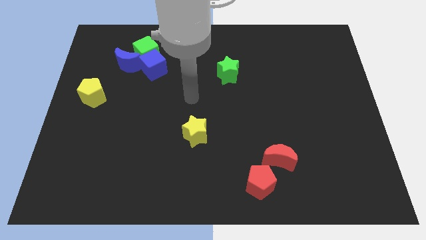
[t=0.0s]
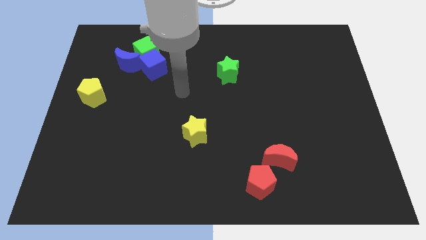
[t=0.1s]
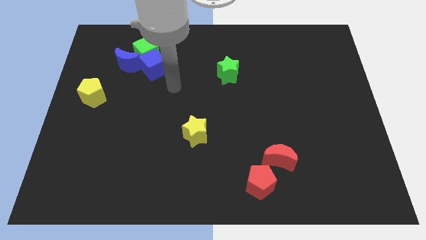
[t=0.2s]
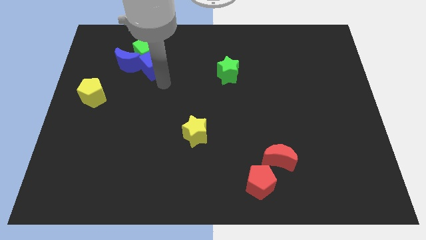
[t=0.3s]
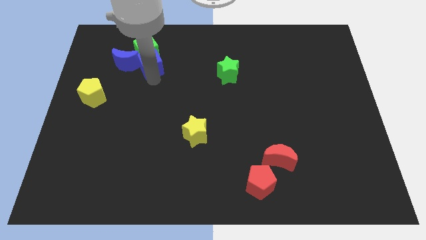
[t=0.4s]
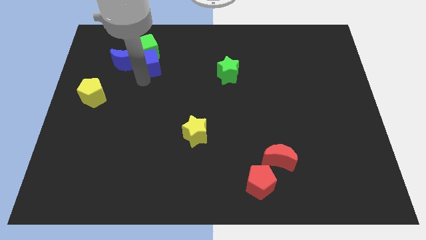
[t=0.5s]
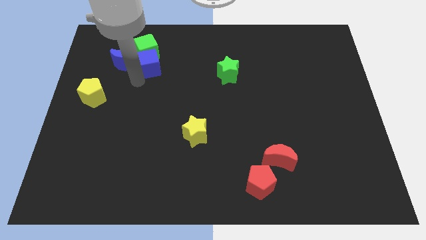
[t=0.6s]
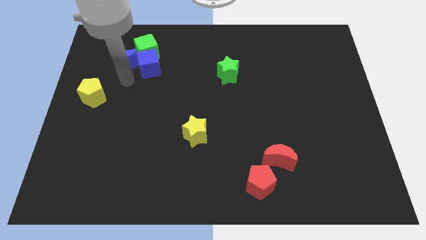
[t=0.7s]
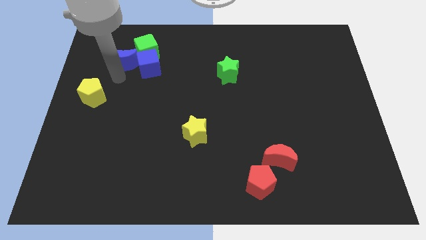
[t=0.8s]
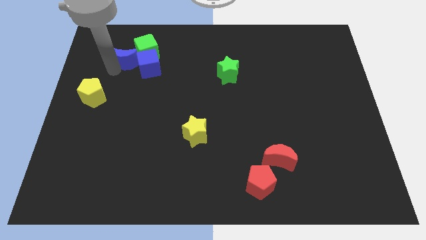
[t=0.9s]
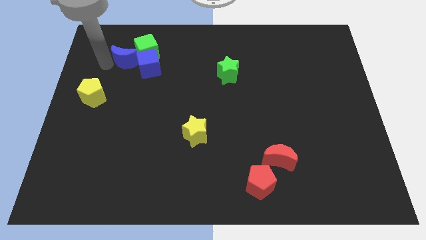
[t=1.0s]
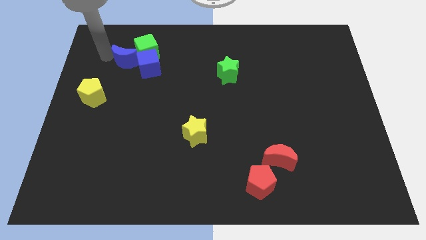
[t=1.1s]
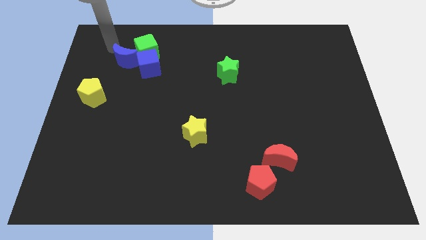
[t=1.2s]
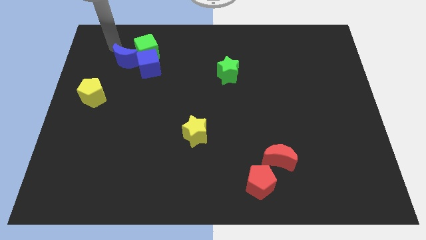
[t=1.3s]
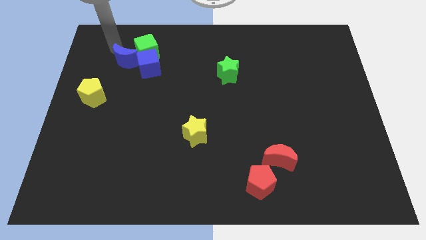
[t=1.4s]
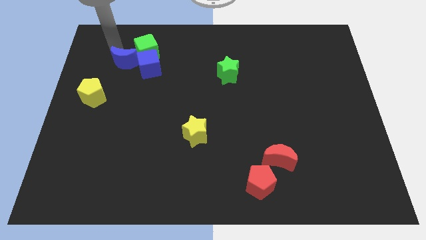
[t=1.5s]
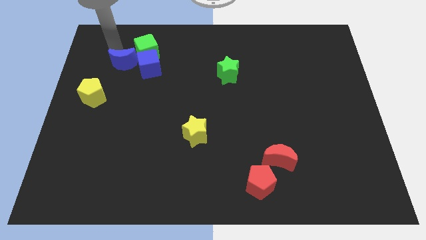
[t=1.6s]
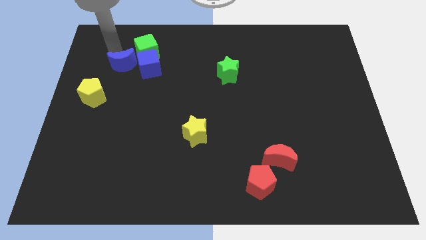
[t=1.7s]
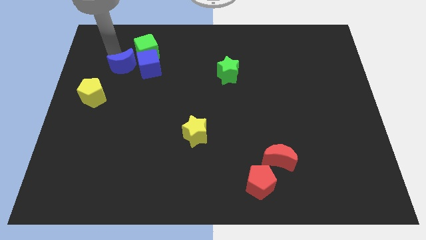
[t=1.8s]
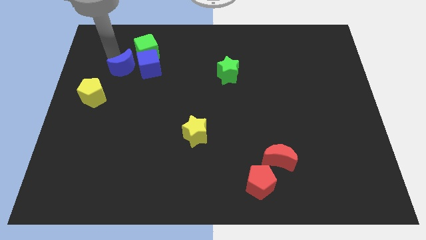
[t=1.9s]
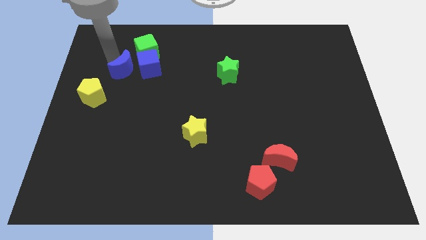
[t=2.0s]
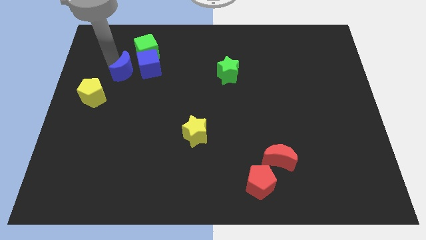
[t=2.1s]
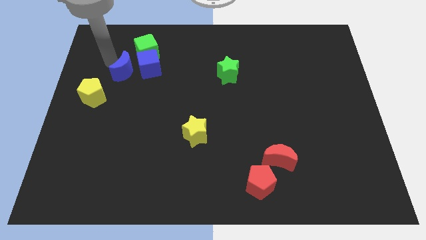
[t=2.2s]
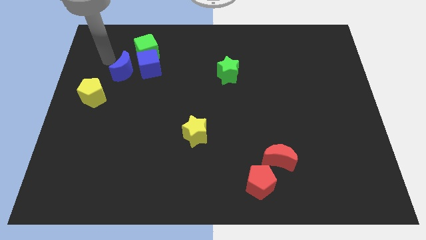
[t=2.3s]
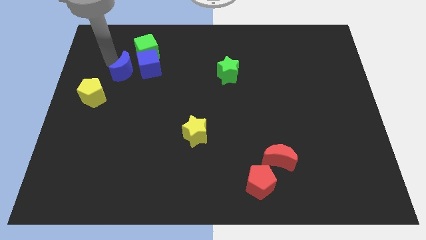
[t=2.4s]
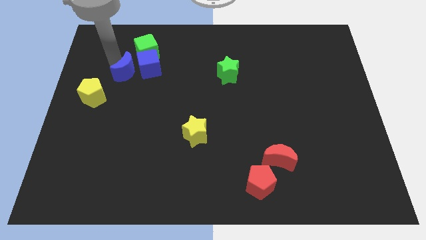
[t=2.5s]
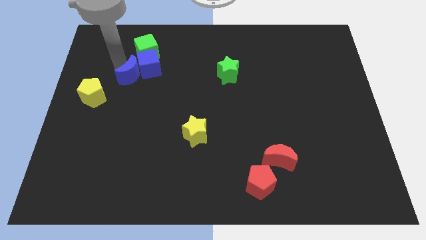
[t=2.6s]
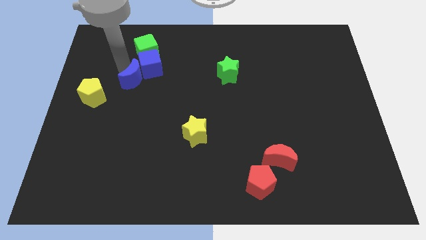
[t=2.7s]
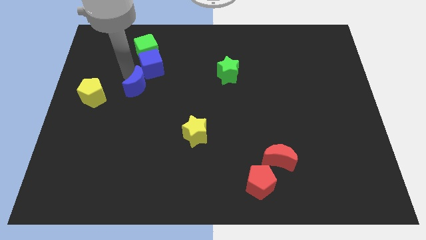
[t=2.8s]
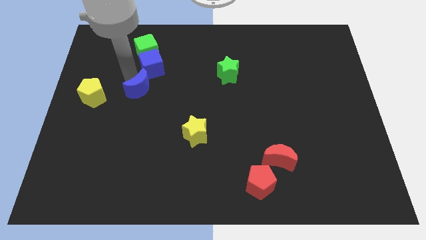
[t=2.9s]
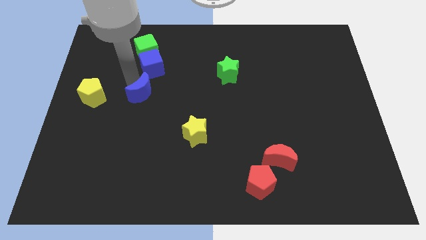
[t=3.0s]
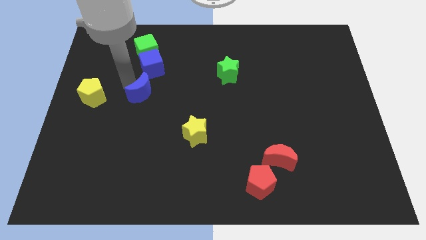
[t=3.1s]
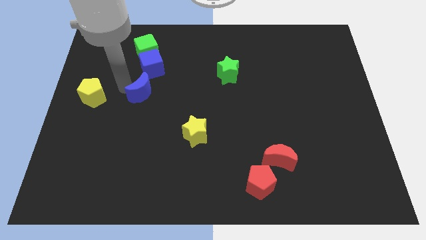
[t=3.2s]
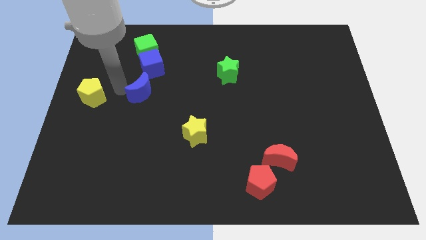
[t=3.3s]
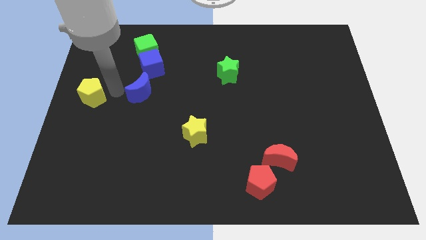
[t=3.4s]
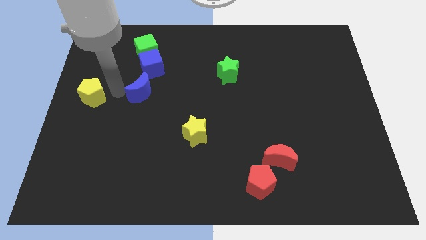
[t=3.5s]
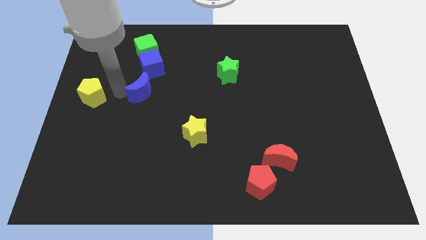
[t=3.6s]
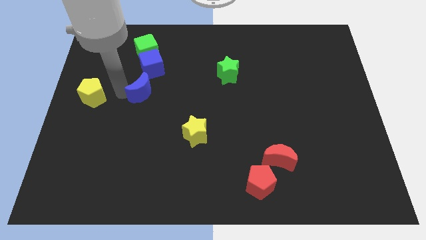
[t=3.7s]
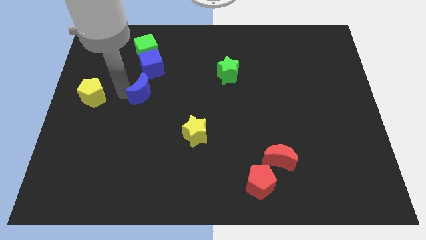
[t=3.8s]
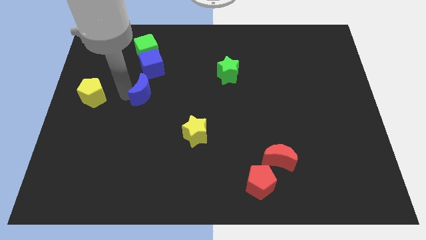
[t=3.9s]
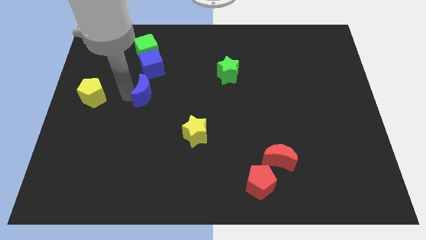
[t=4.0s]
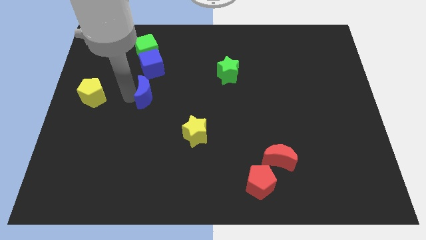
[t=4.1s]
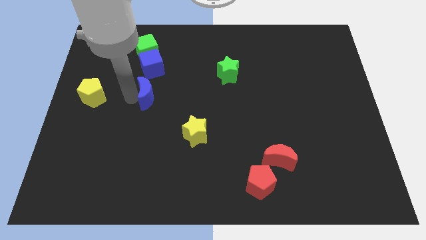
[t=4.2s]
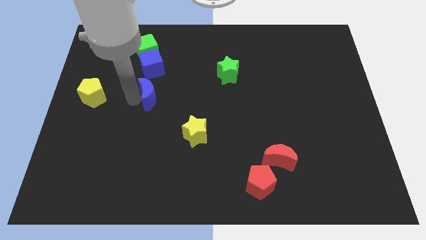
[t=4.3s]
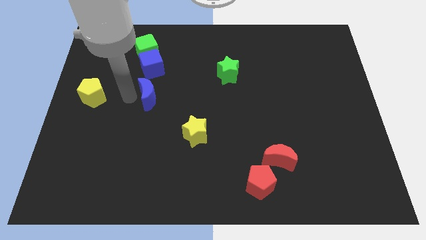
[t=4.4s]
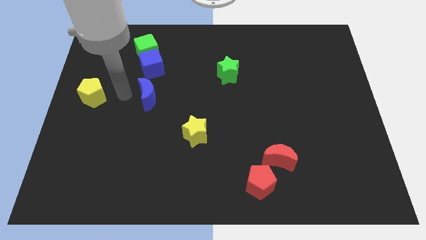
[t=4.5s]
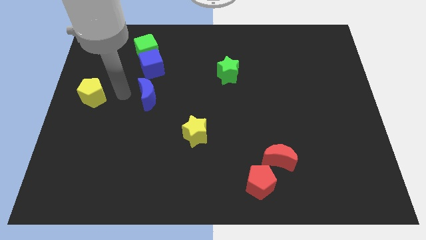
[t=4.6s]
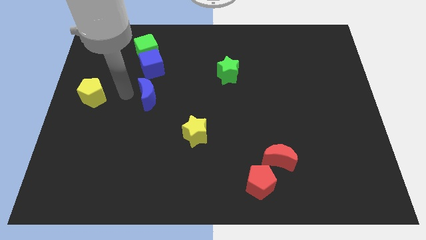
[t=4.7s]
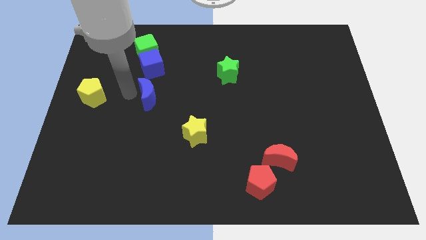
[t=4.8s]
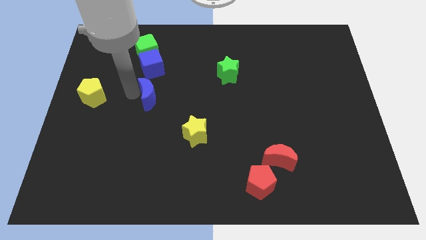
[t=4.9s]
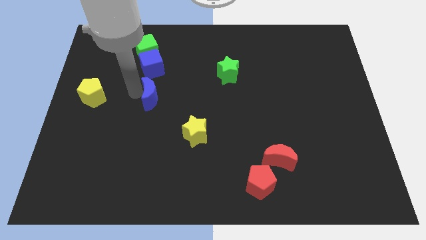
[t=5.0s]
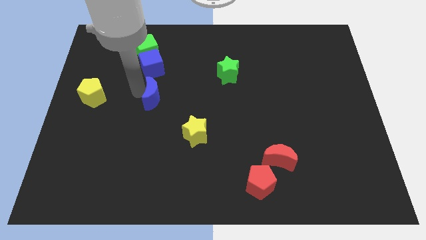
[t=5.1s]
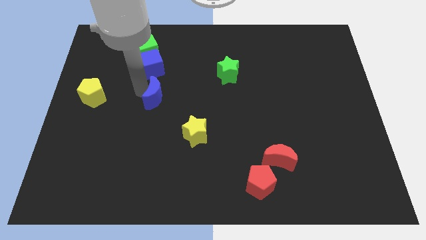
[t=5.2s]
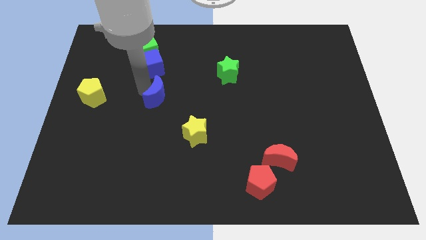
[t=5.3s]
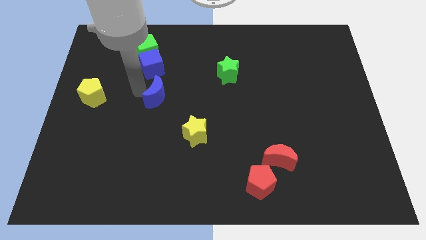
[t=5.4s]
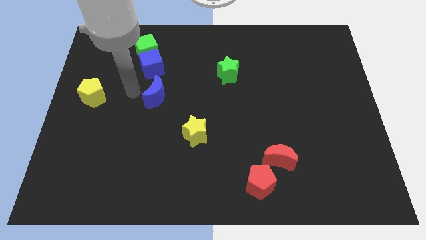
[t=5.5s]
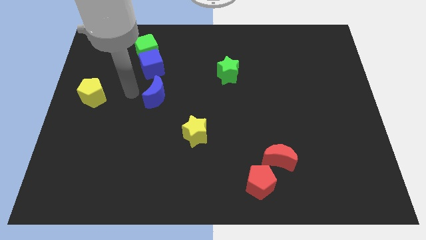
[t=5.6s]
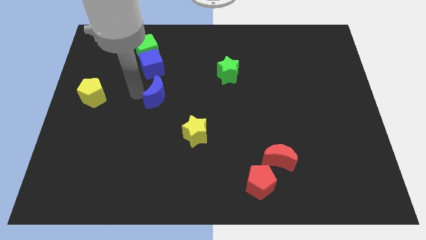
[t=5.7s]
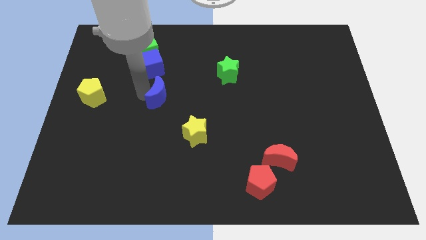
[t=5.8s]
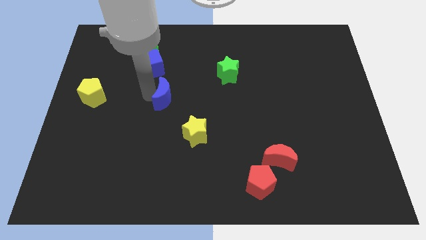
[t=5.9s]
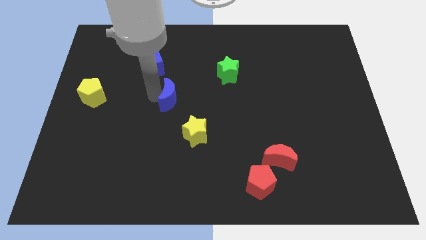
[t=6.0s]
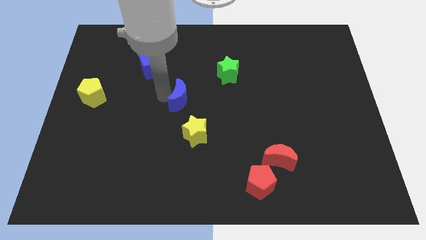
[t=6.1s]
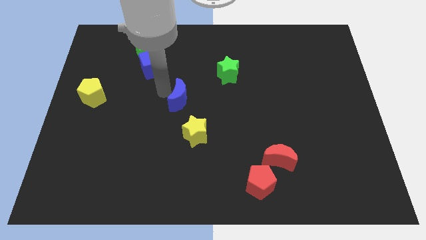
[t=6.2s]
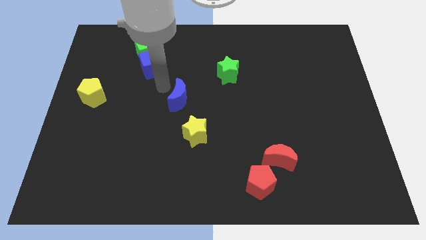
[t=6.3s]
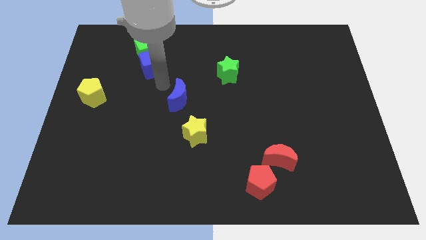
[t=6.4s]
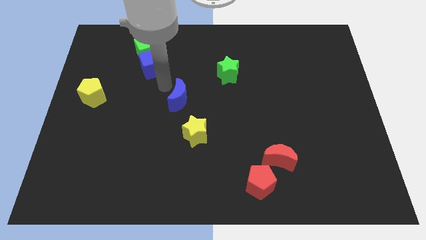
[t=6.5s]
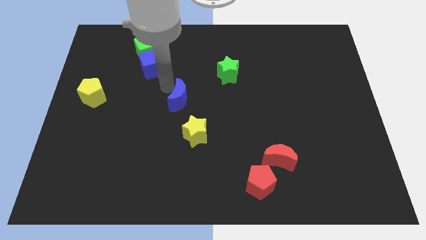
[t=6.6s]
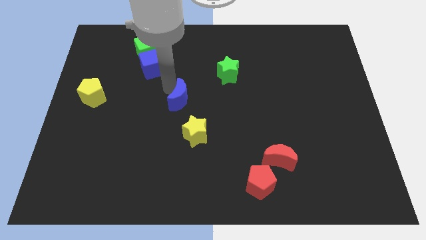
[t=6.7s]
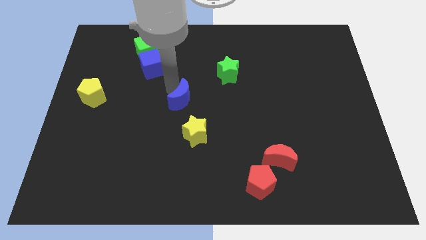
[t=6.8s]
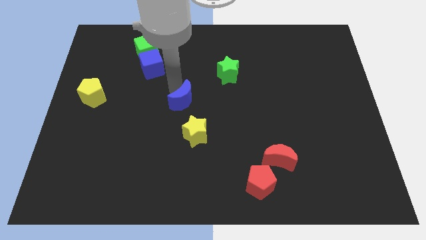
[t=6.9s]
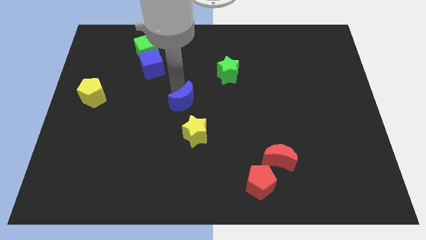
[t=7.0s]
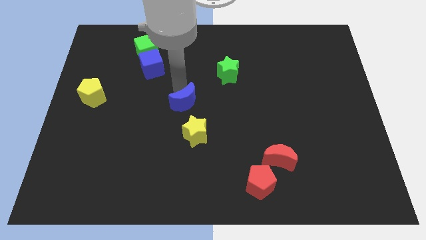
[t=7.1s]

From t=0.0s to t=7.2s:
push the blue moon down and to the right diagonally

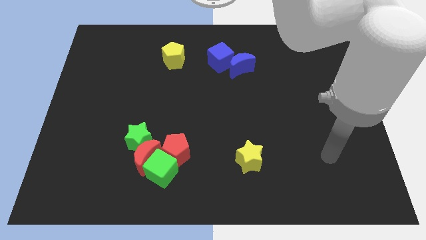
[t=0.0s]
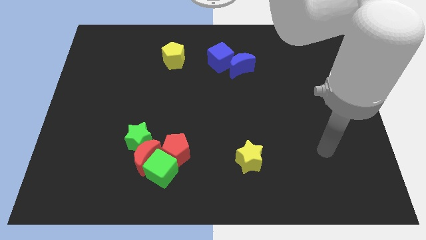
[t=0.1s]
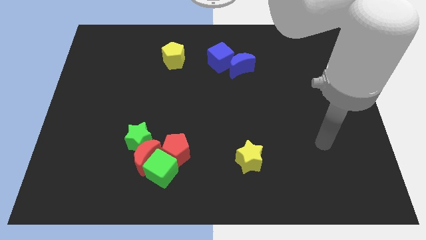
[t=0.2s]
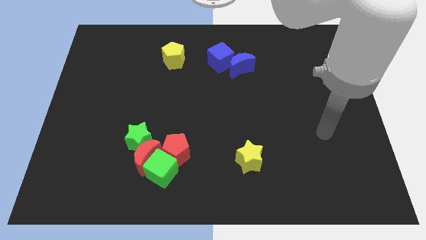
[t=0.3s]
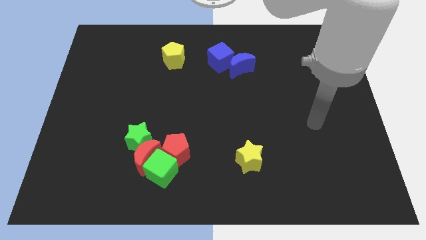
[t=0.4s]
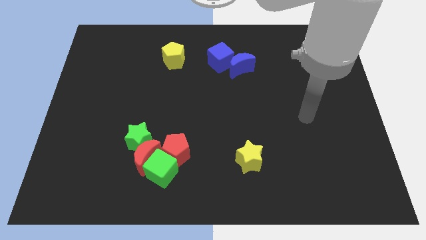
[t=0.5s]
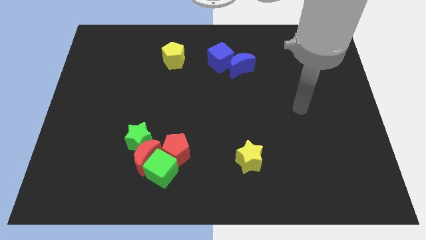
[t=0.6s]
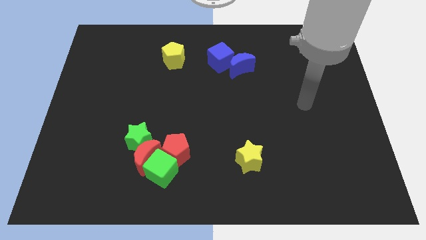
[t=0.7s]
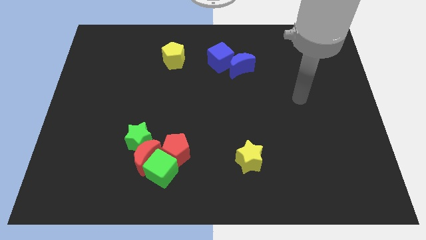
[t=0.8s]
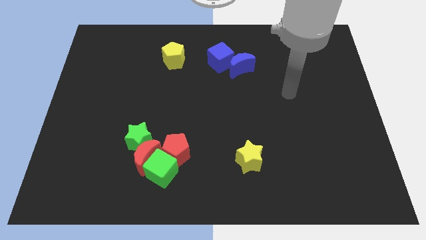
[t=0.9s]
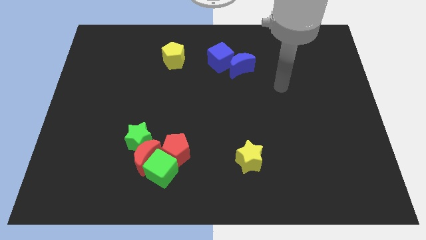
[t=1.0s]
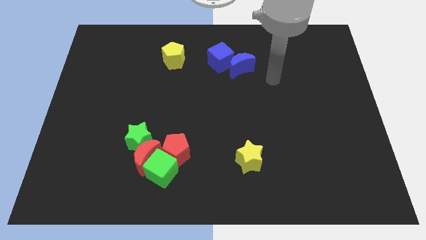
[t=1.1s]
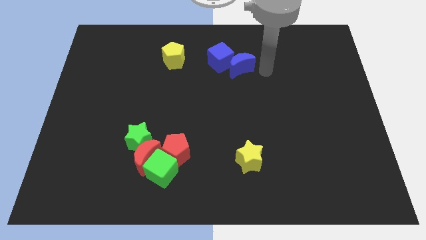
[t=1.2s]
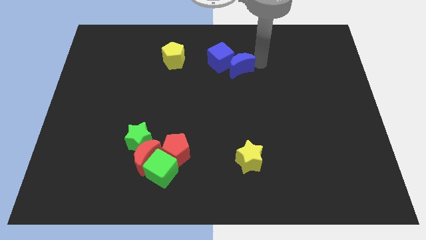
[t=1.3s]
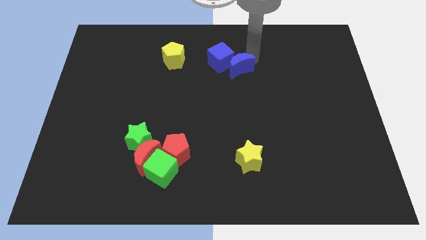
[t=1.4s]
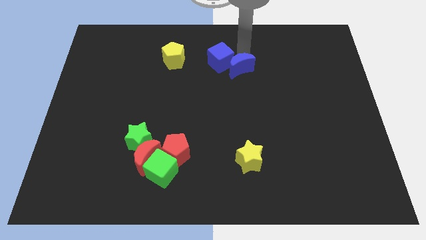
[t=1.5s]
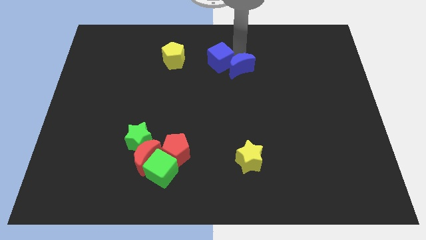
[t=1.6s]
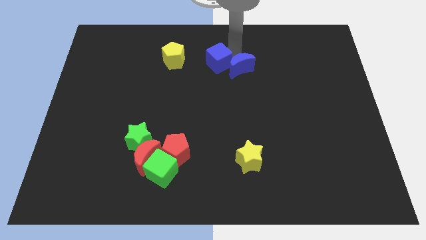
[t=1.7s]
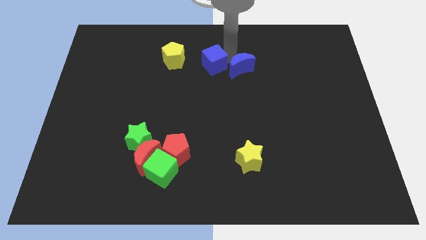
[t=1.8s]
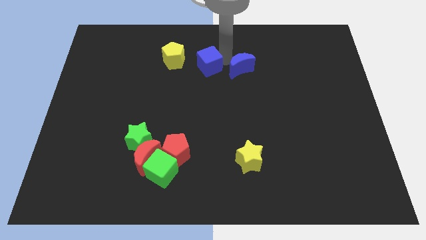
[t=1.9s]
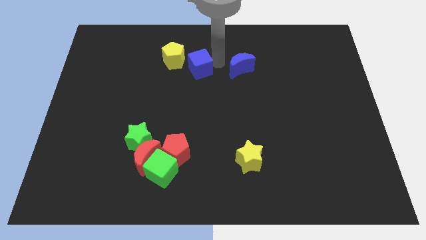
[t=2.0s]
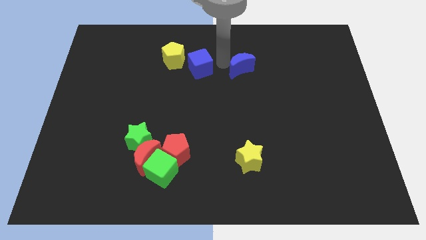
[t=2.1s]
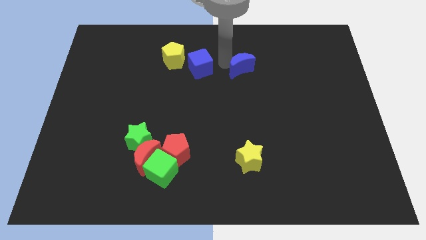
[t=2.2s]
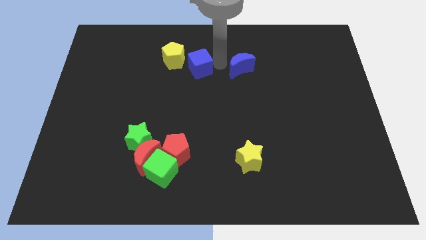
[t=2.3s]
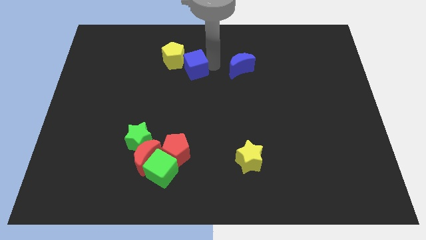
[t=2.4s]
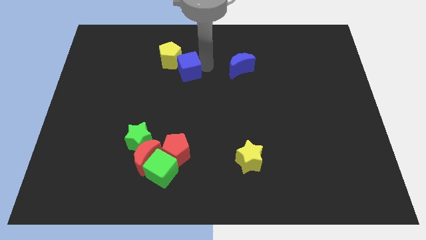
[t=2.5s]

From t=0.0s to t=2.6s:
push the blue cube slightly to the left
